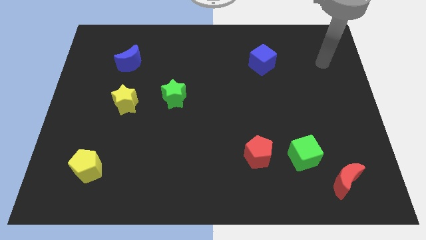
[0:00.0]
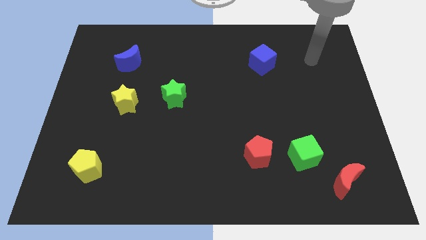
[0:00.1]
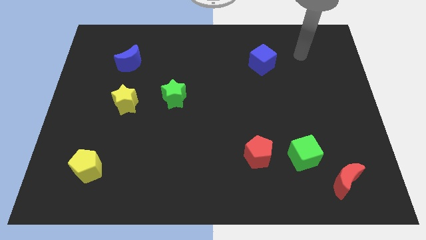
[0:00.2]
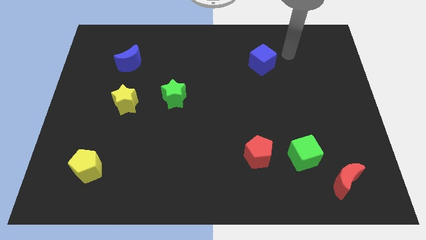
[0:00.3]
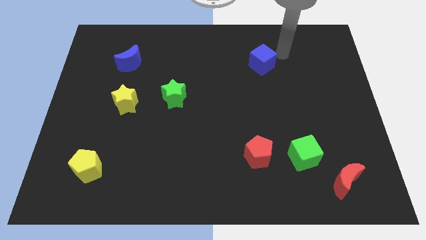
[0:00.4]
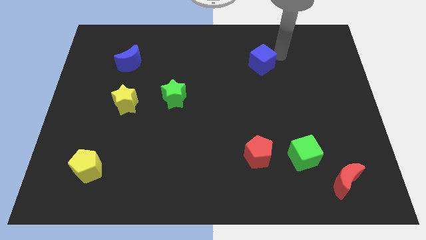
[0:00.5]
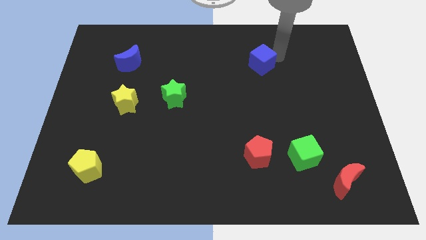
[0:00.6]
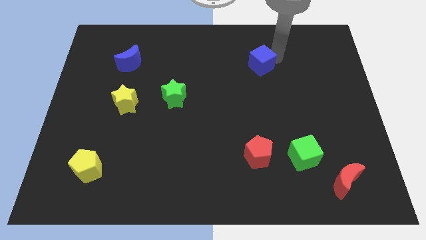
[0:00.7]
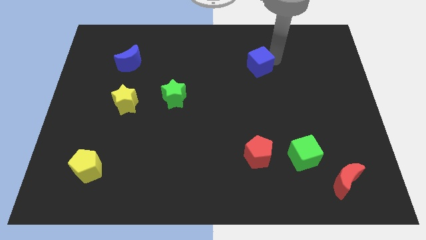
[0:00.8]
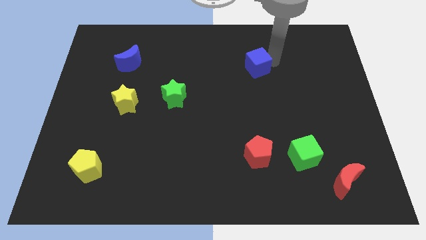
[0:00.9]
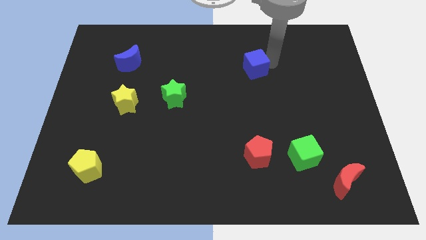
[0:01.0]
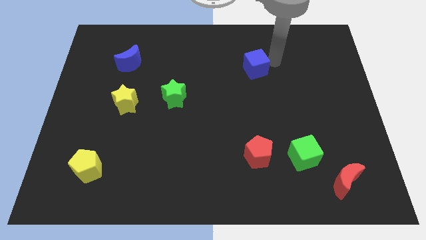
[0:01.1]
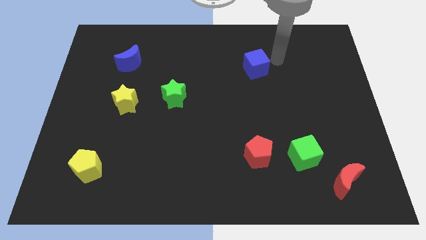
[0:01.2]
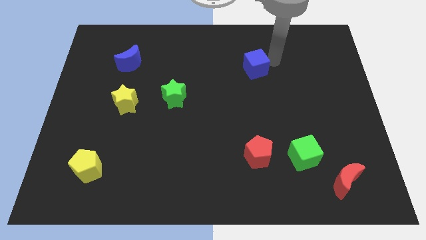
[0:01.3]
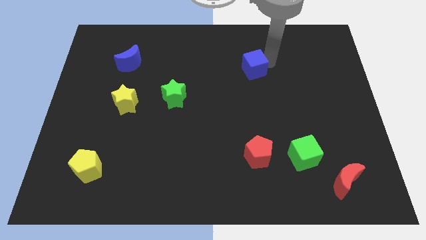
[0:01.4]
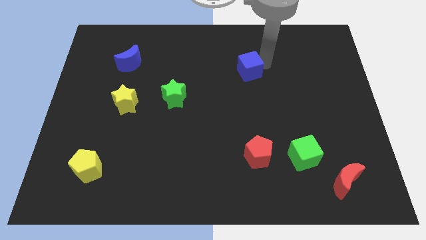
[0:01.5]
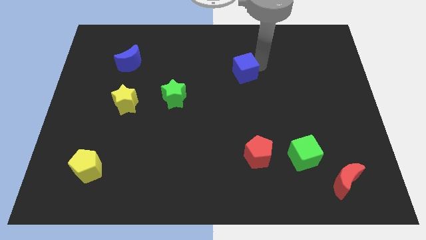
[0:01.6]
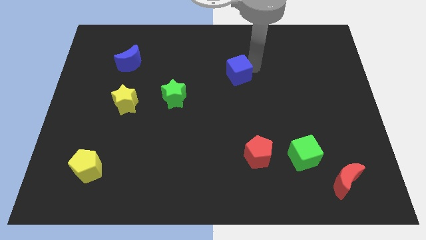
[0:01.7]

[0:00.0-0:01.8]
slightly move the blue cube down and to the left

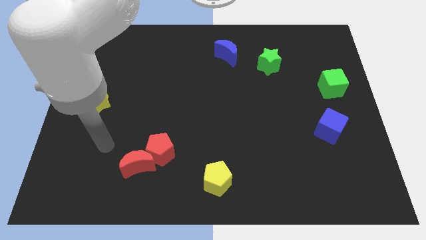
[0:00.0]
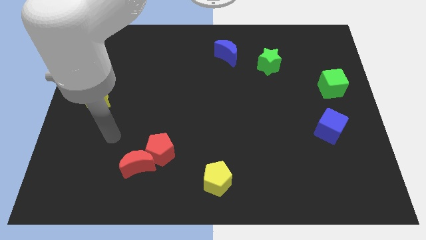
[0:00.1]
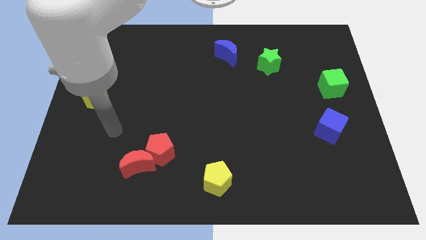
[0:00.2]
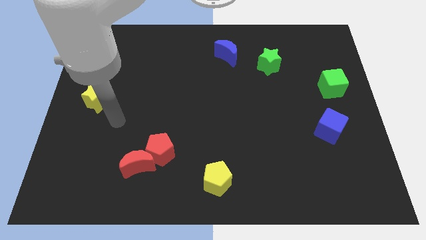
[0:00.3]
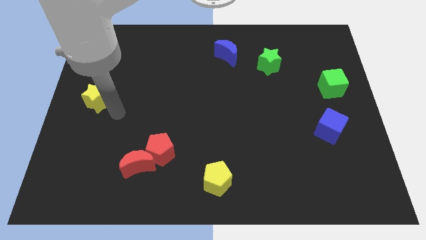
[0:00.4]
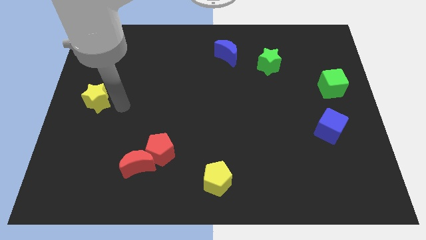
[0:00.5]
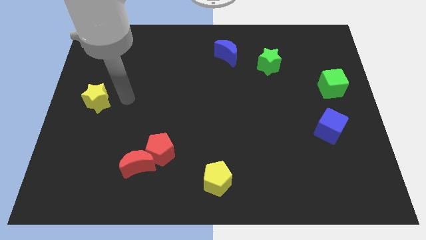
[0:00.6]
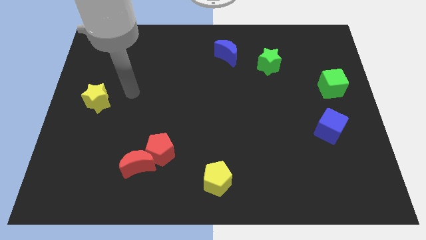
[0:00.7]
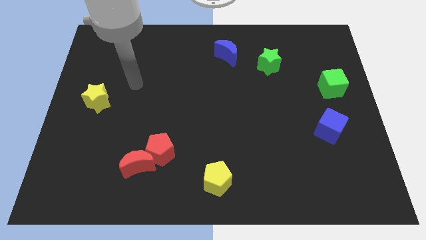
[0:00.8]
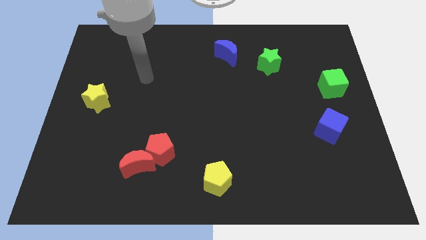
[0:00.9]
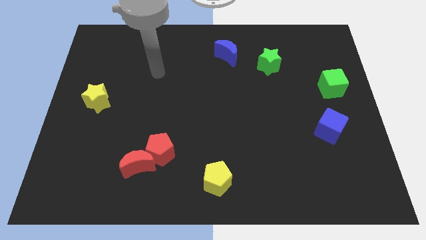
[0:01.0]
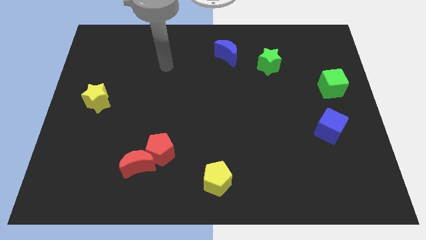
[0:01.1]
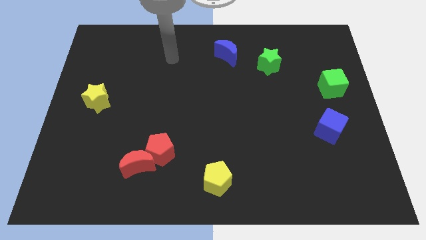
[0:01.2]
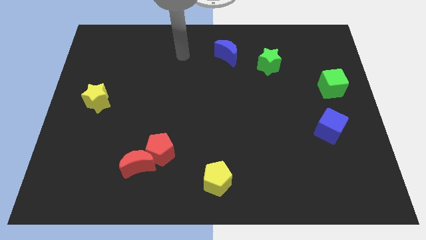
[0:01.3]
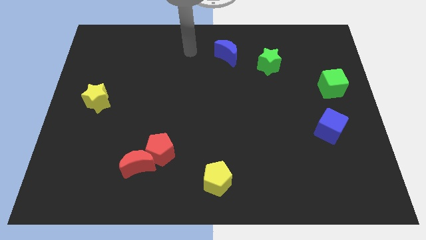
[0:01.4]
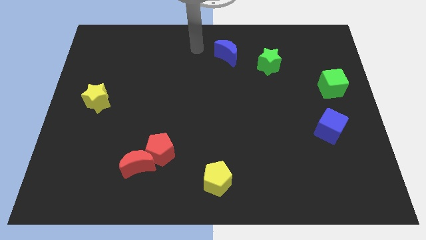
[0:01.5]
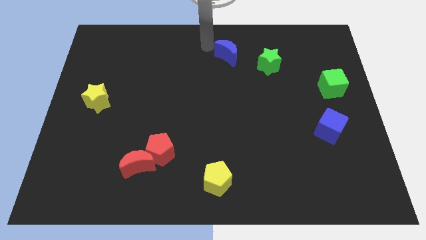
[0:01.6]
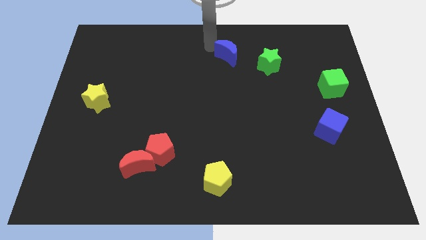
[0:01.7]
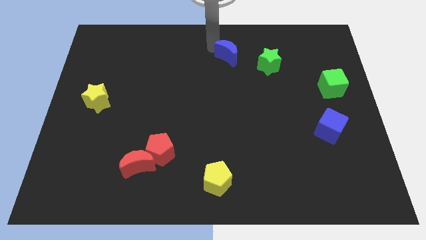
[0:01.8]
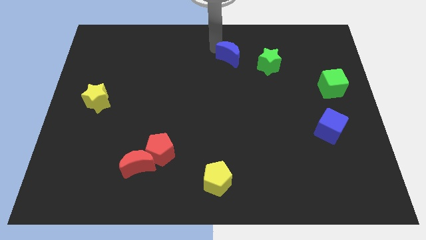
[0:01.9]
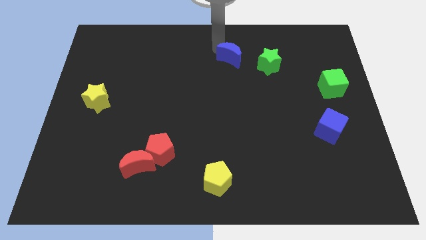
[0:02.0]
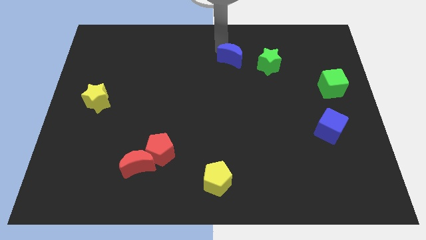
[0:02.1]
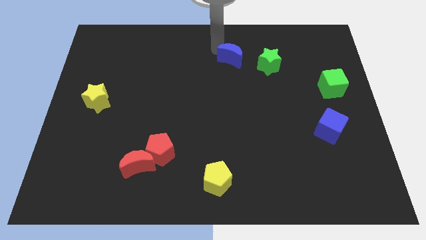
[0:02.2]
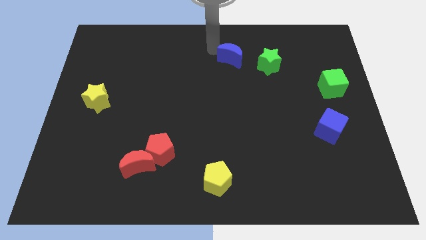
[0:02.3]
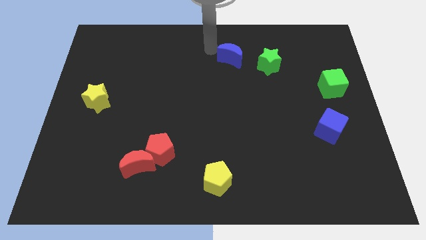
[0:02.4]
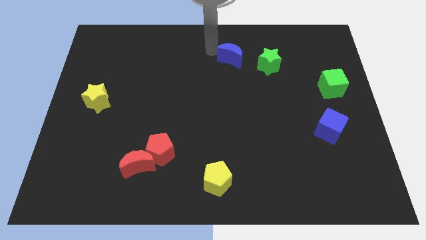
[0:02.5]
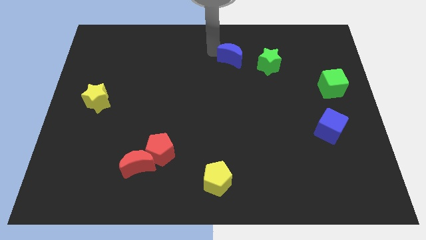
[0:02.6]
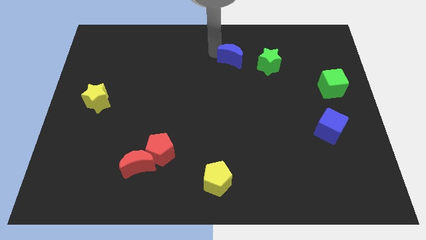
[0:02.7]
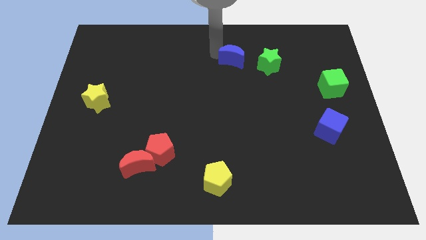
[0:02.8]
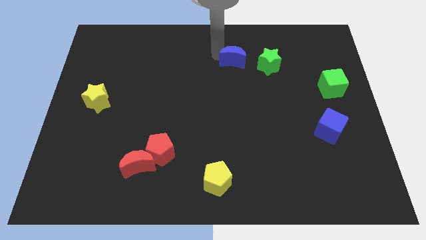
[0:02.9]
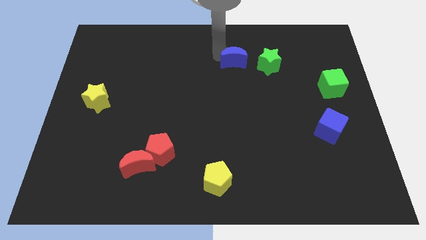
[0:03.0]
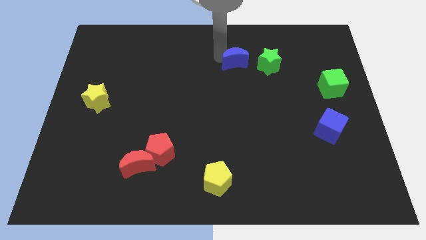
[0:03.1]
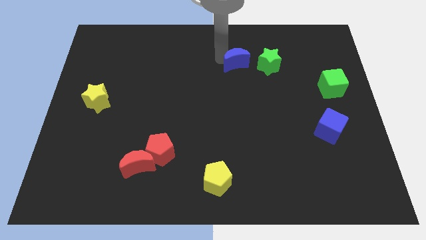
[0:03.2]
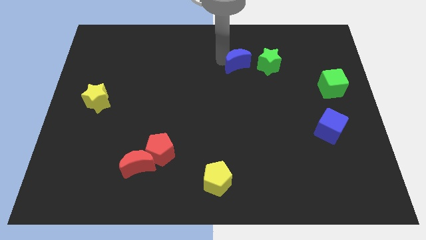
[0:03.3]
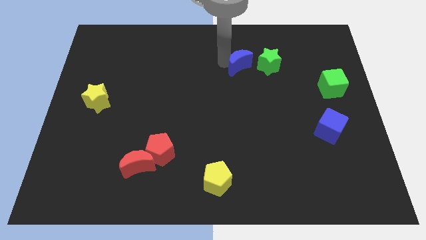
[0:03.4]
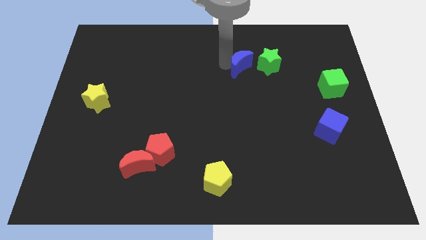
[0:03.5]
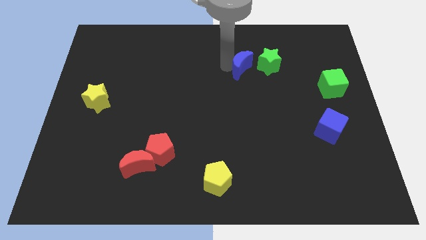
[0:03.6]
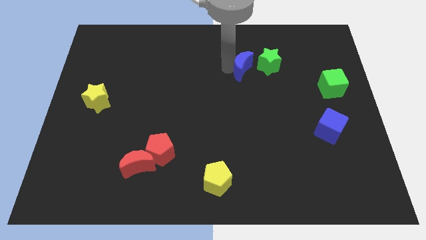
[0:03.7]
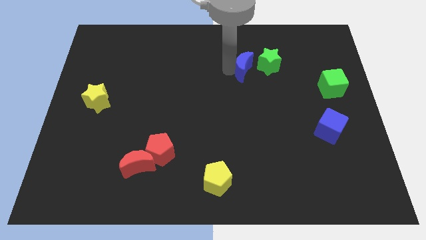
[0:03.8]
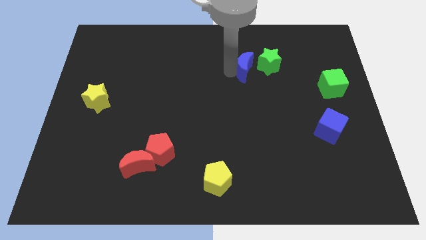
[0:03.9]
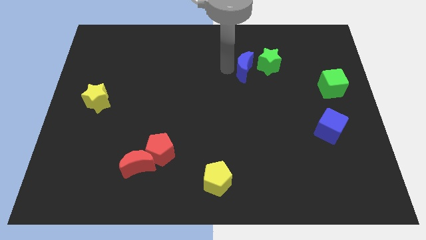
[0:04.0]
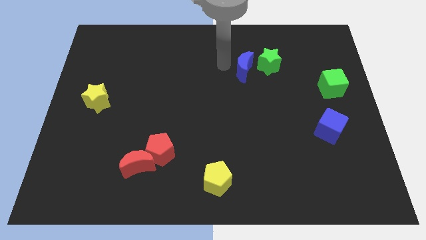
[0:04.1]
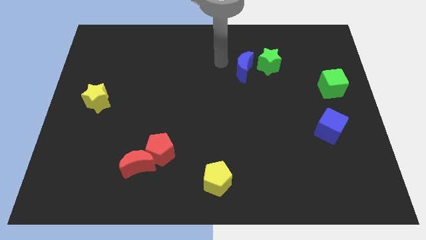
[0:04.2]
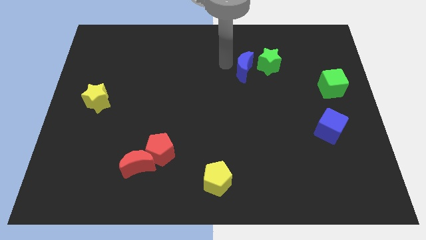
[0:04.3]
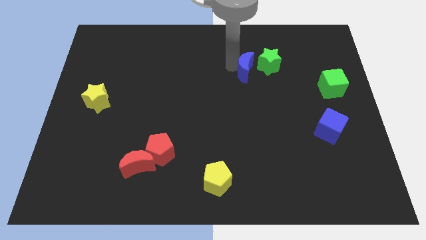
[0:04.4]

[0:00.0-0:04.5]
move the blue moon diagonally downwards and right a little bit

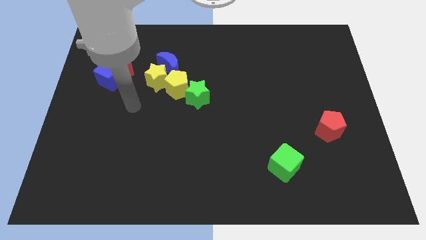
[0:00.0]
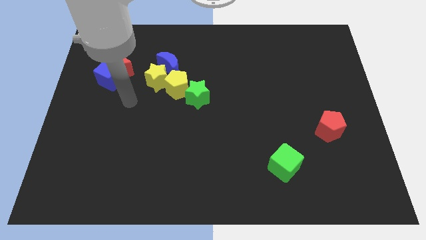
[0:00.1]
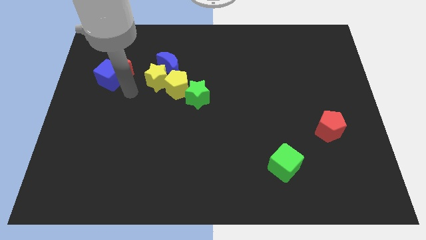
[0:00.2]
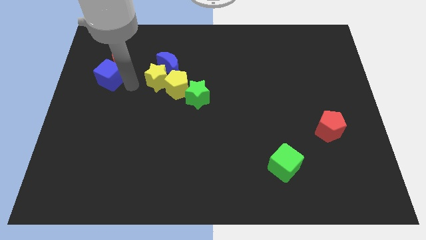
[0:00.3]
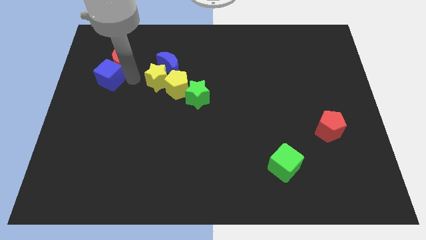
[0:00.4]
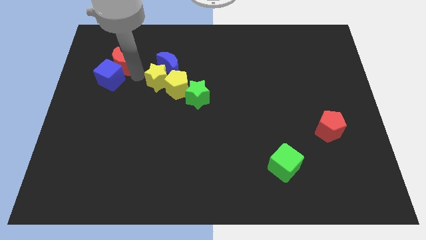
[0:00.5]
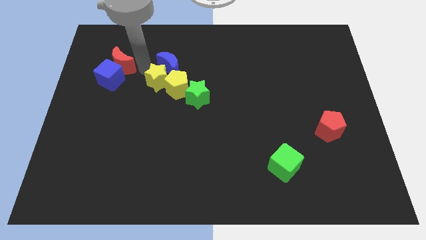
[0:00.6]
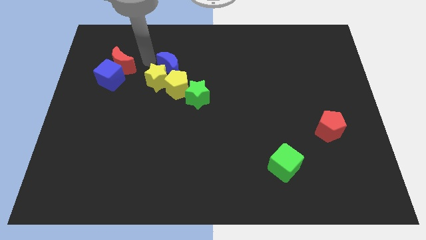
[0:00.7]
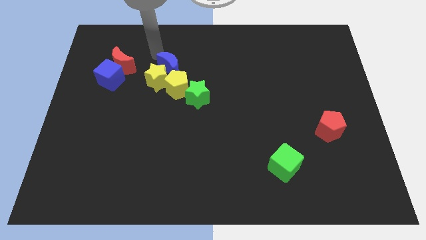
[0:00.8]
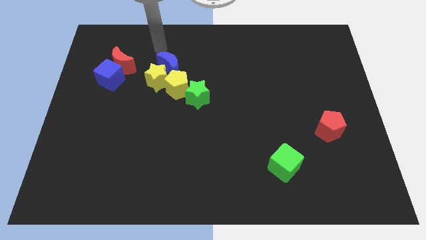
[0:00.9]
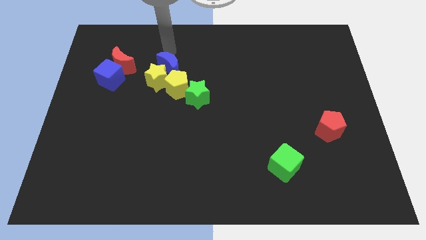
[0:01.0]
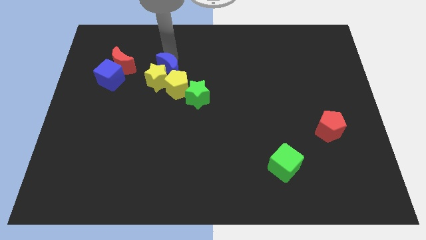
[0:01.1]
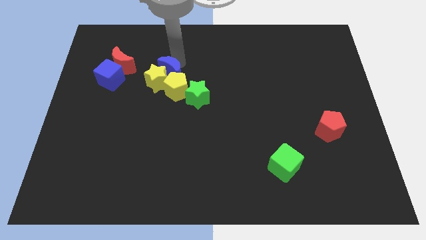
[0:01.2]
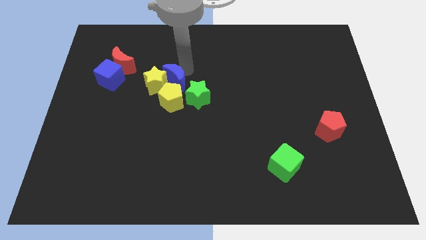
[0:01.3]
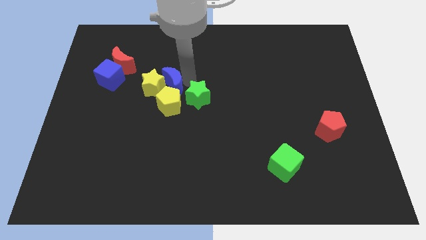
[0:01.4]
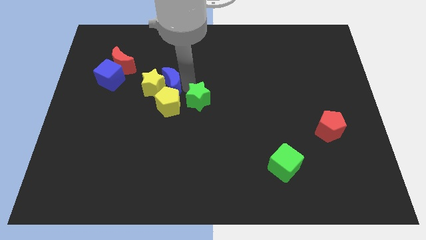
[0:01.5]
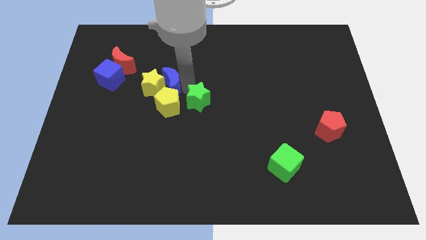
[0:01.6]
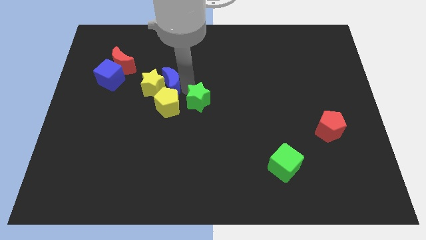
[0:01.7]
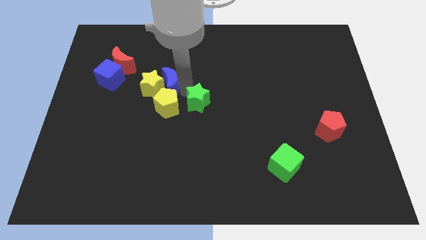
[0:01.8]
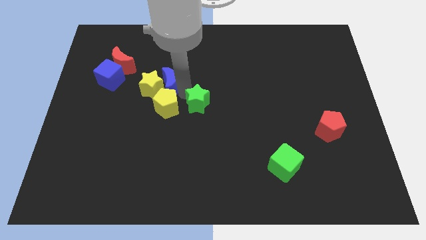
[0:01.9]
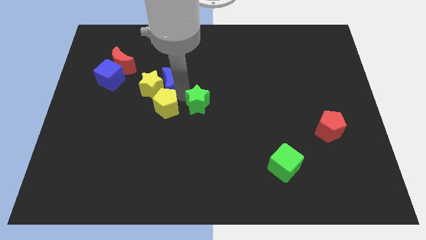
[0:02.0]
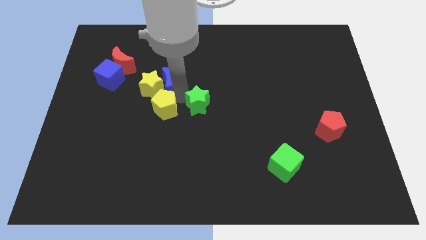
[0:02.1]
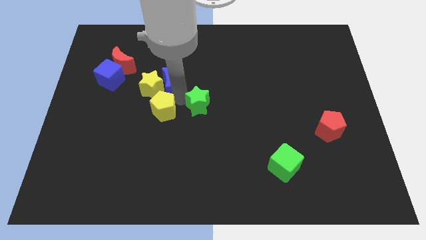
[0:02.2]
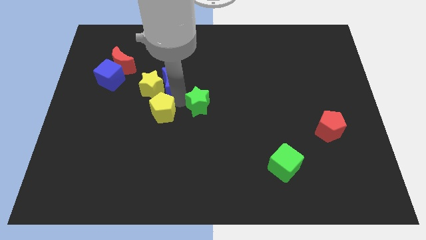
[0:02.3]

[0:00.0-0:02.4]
slightly move the yellow pentagon down
